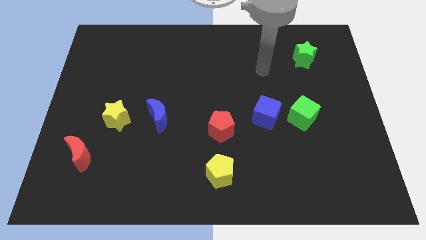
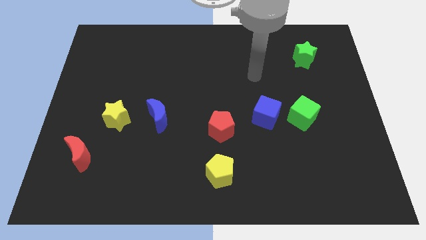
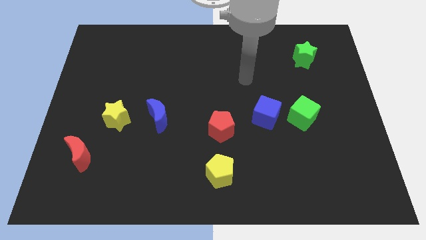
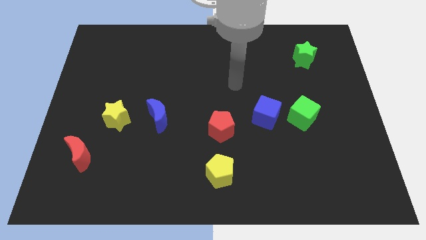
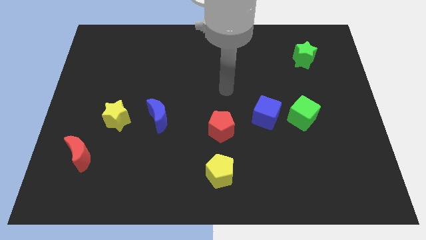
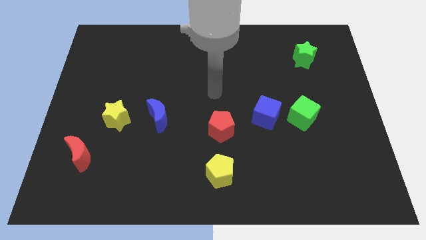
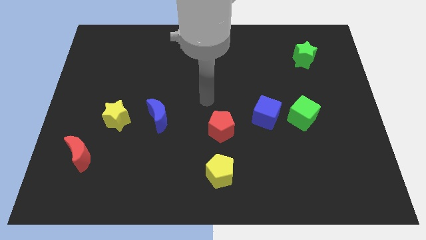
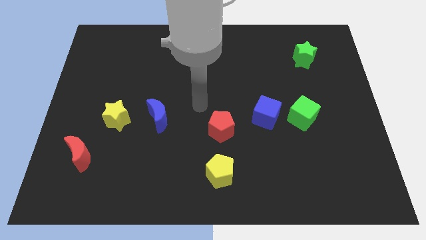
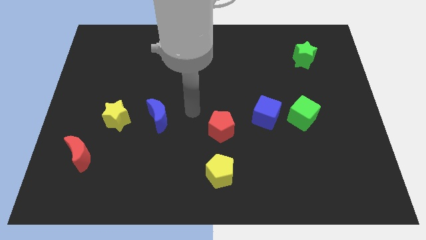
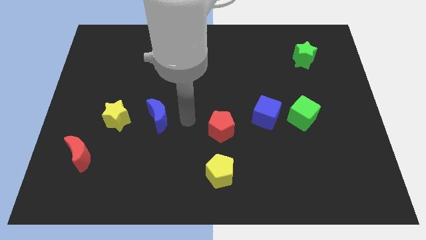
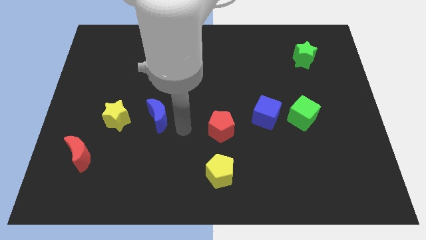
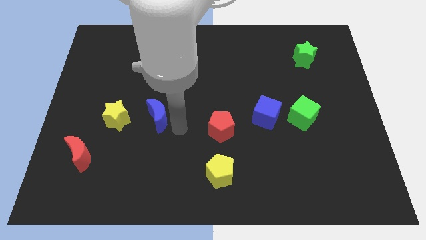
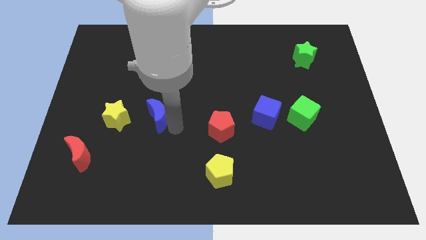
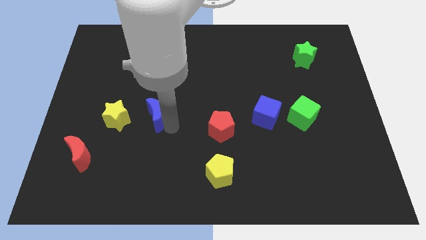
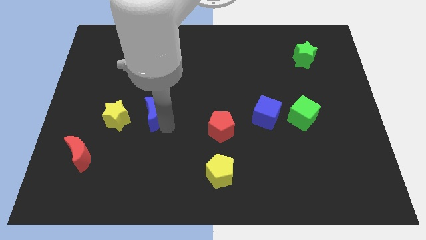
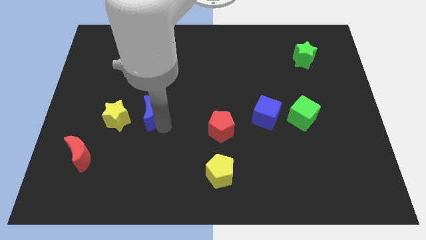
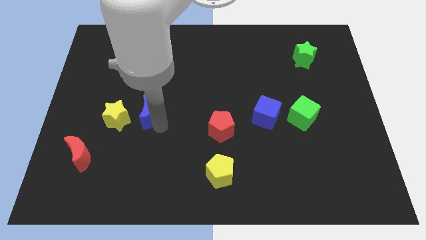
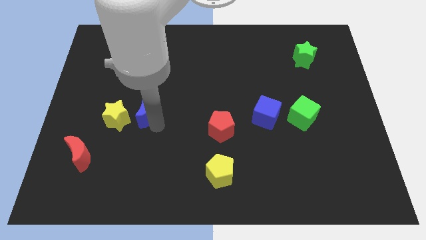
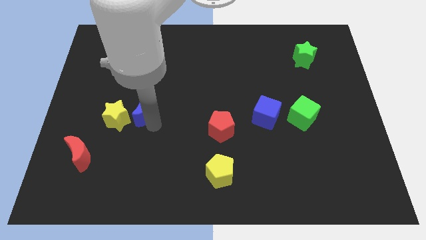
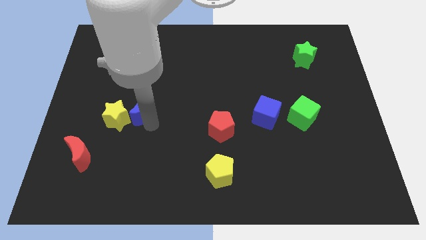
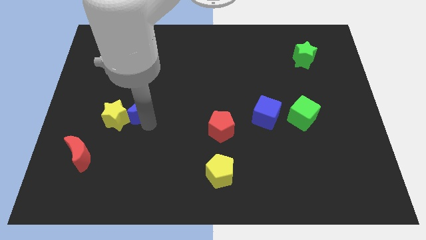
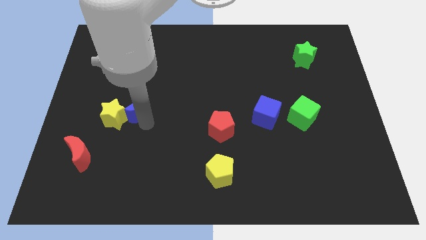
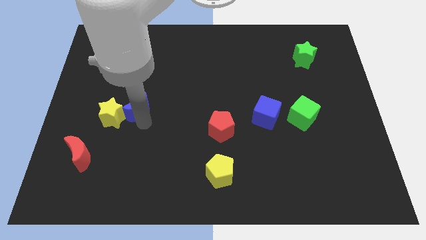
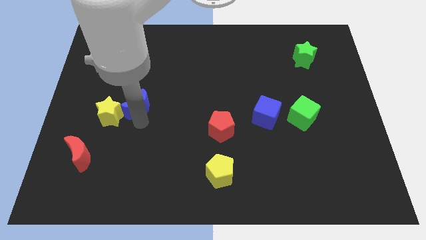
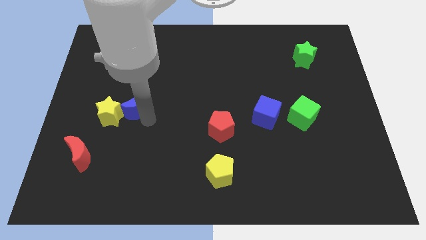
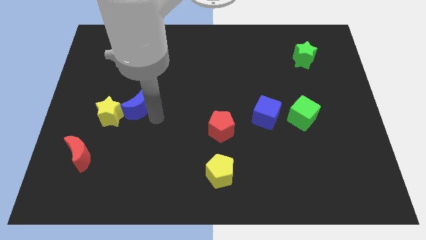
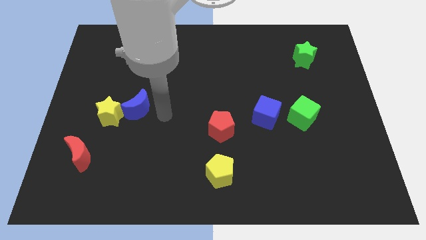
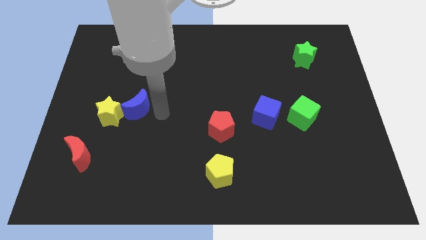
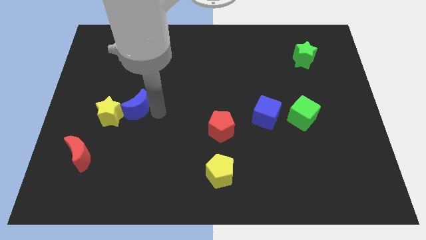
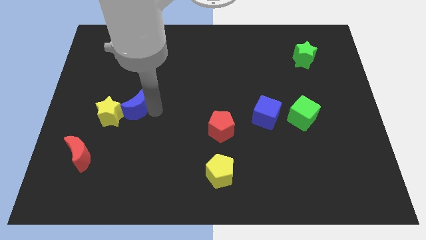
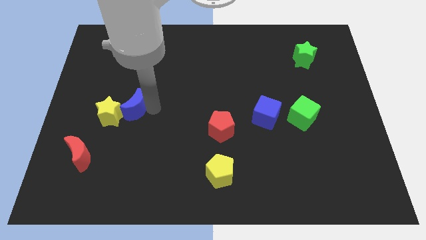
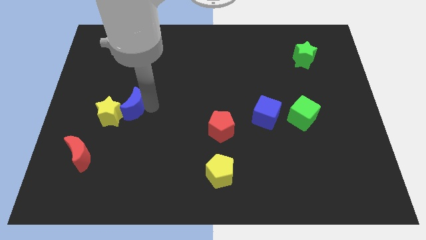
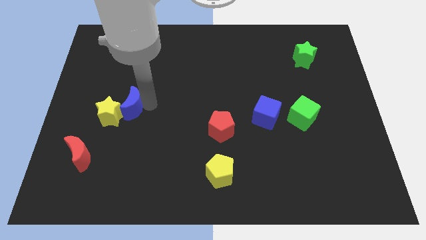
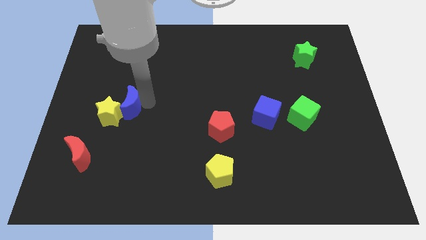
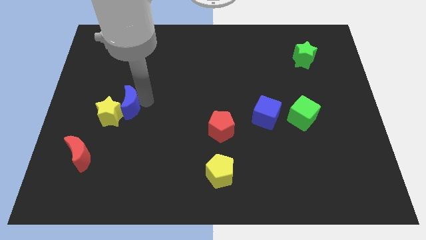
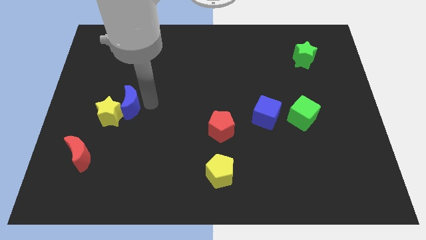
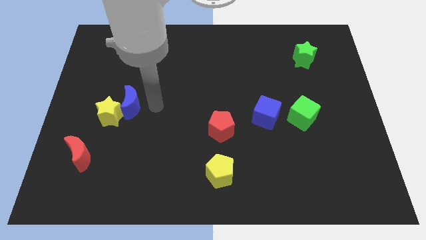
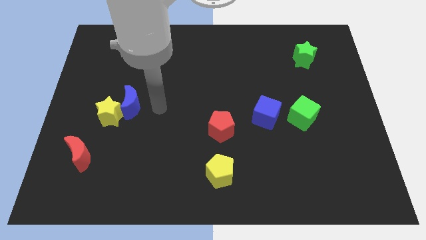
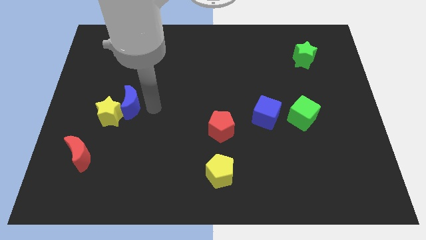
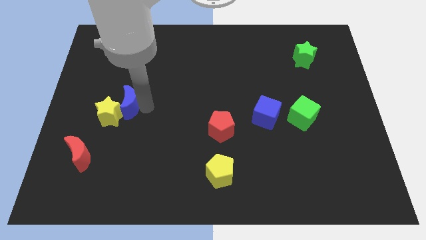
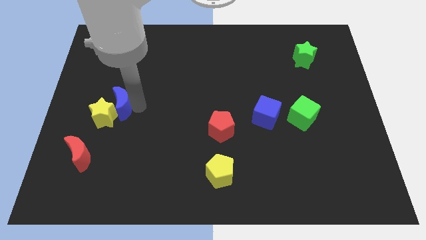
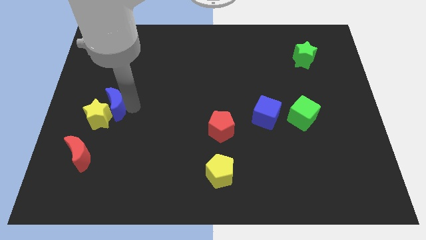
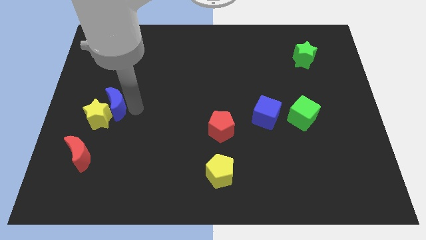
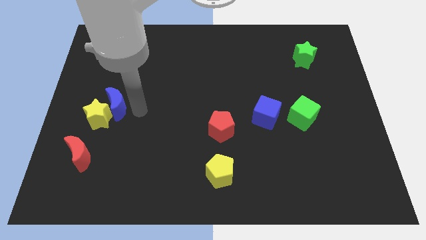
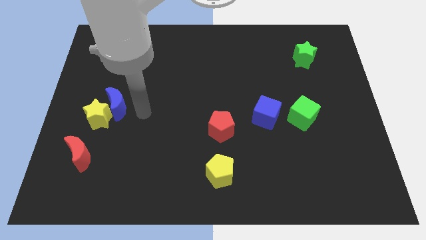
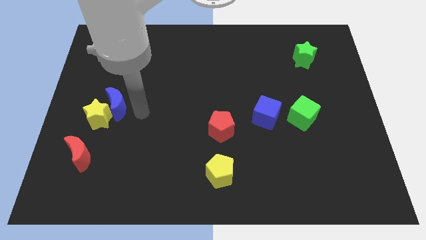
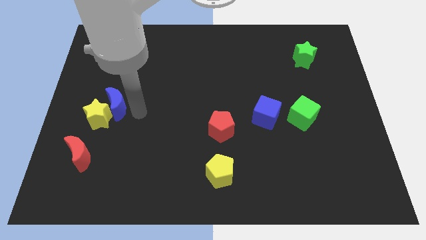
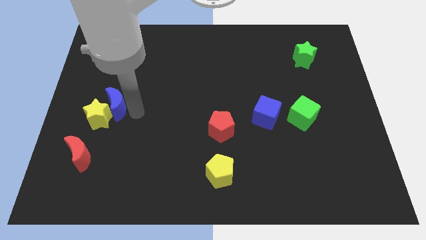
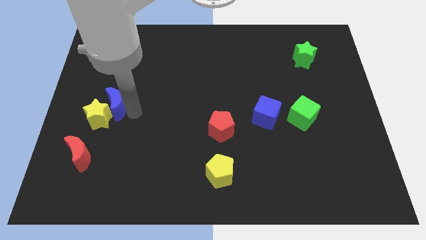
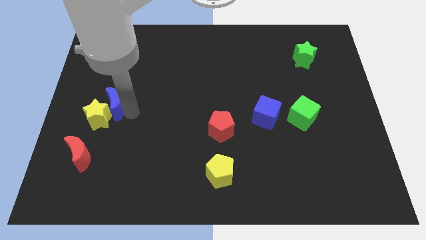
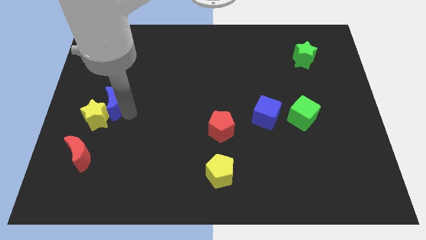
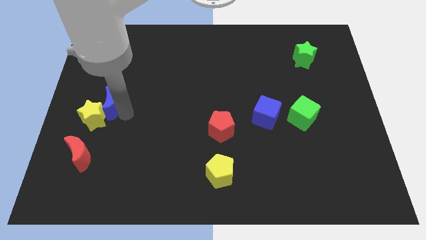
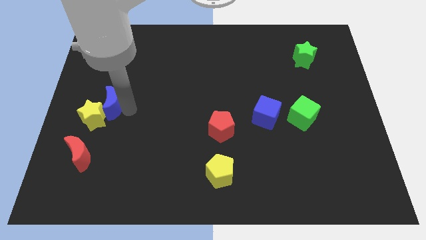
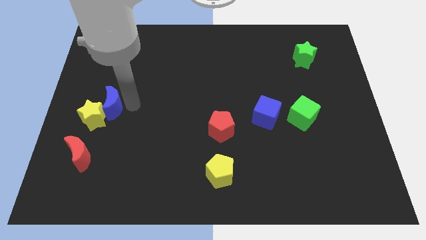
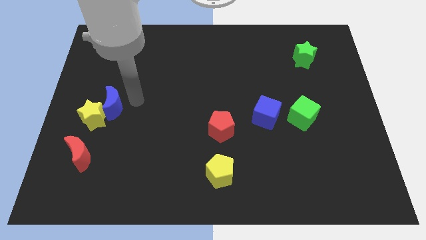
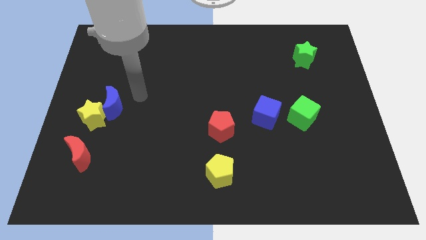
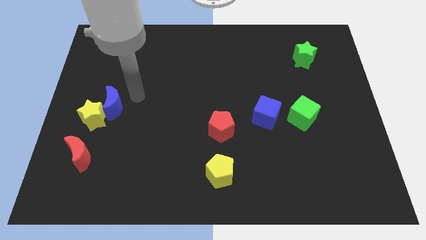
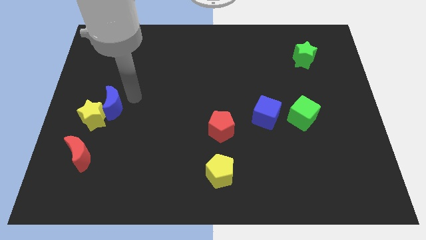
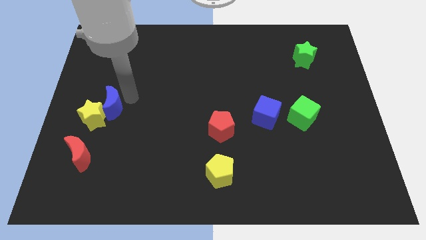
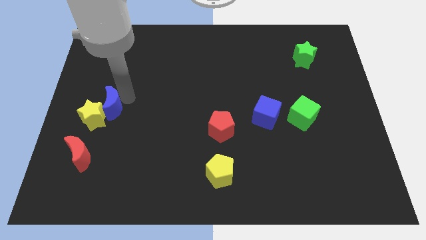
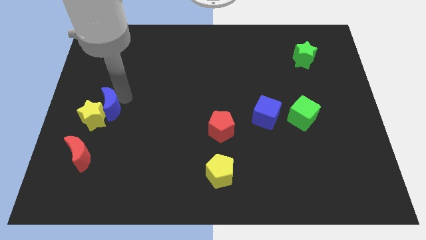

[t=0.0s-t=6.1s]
slide the blue moon to the top of the red moon

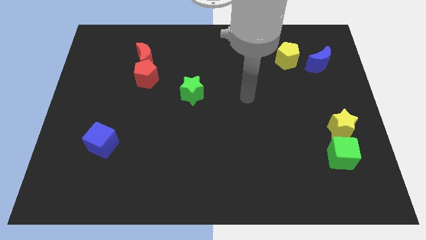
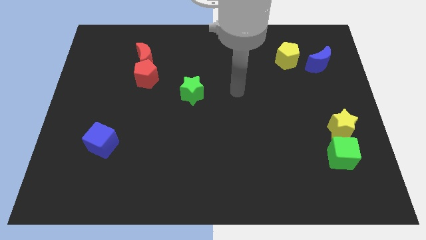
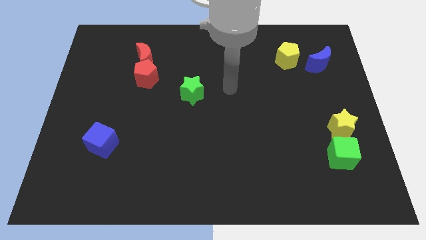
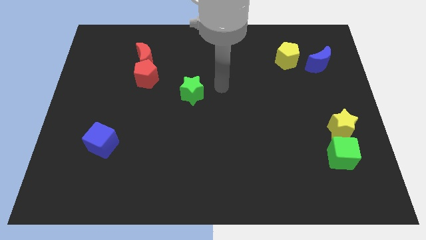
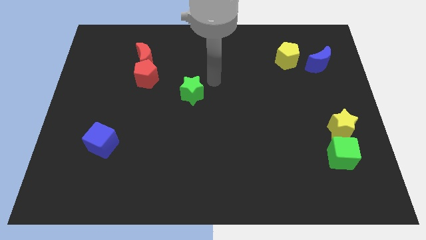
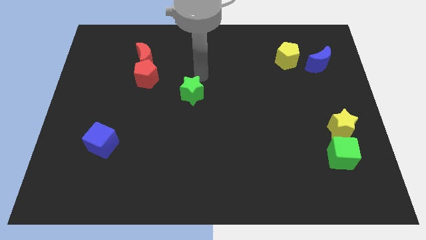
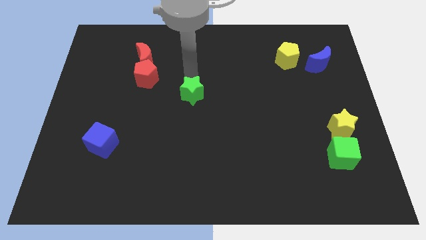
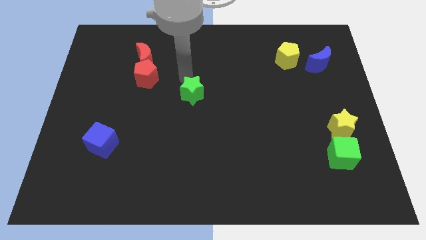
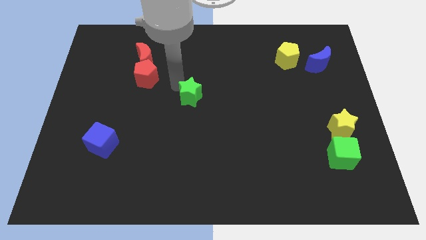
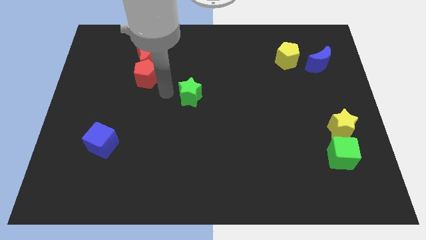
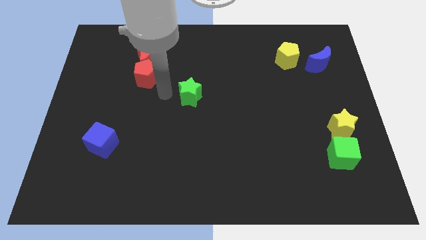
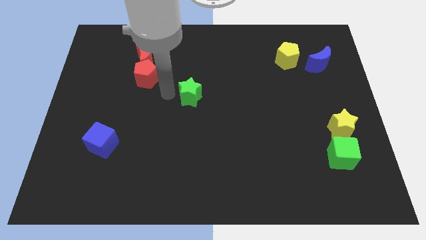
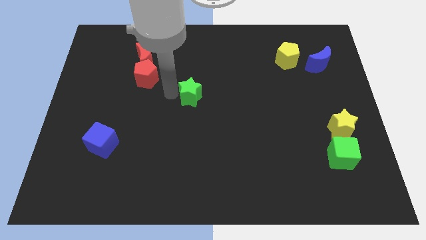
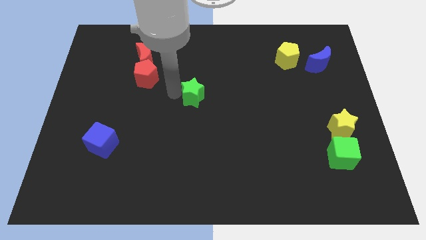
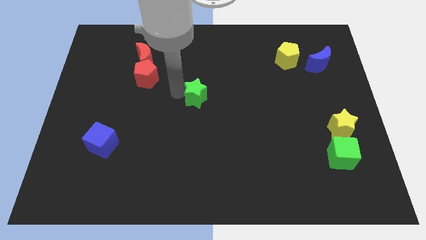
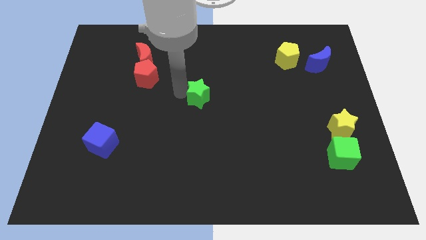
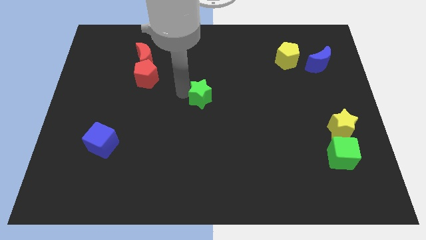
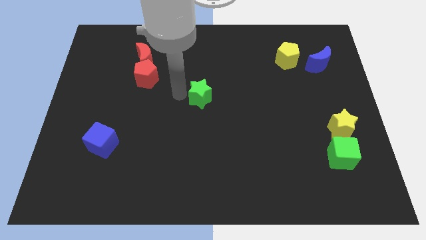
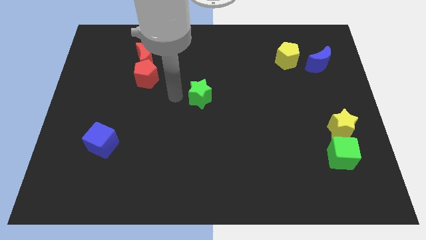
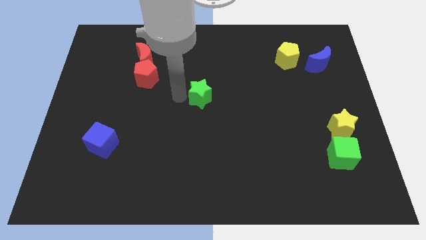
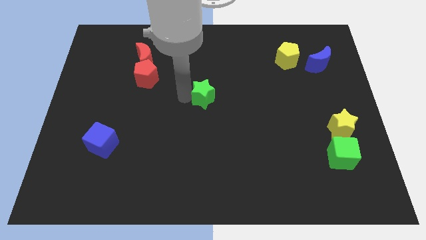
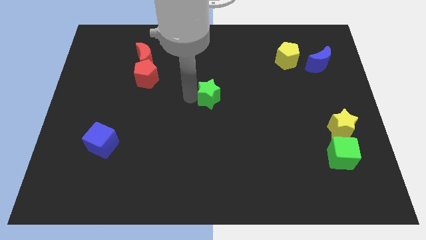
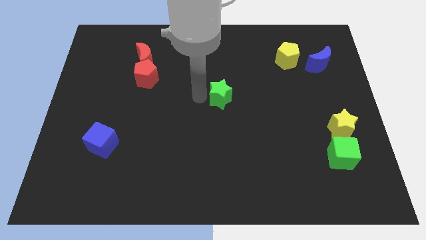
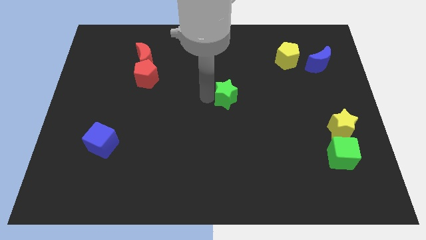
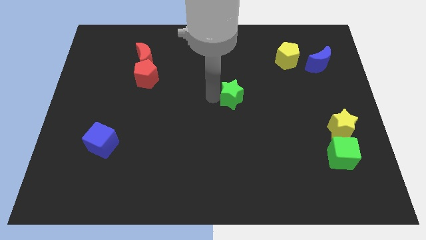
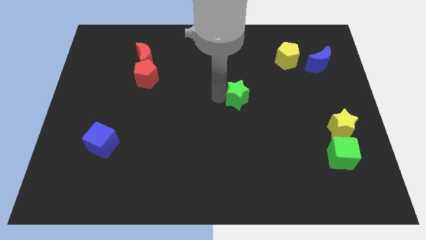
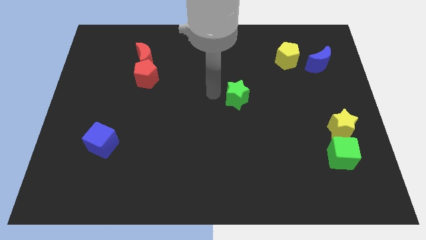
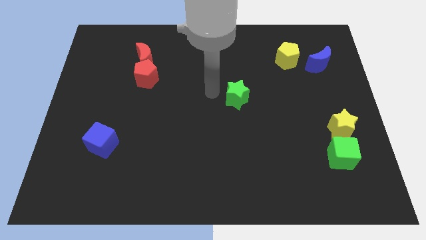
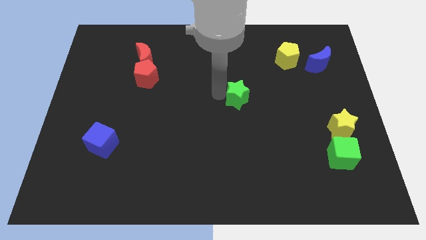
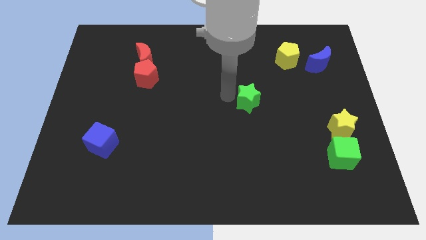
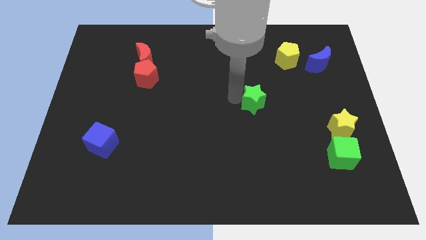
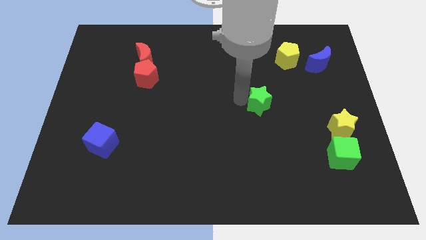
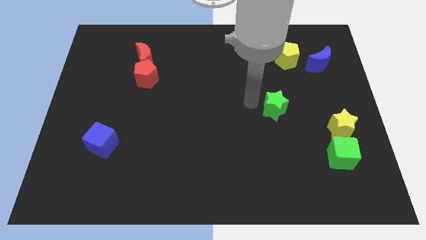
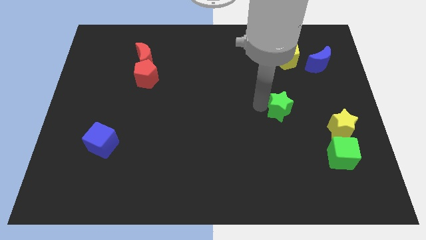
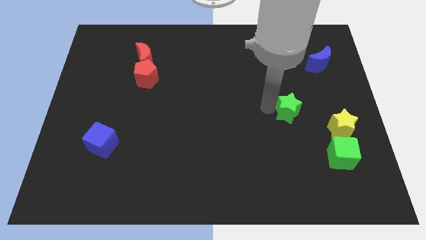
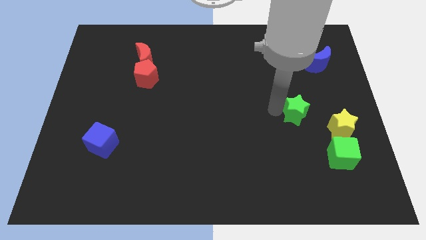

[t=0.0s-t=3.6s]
put the green star to the top left of the yellow star
